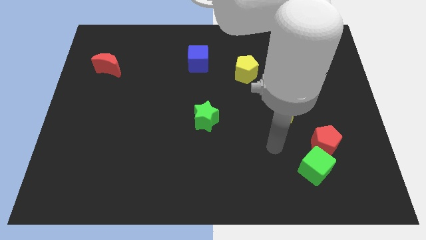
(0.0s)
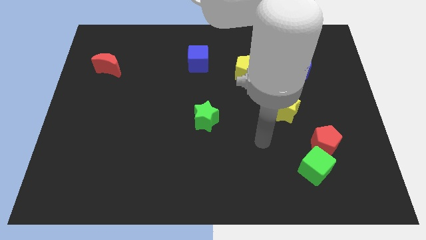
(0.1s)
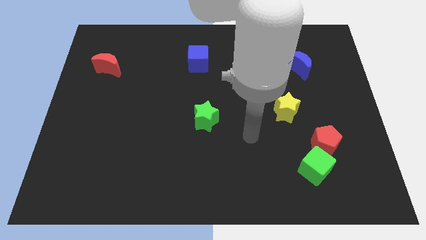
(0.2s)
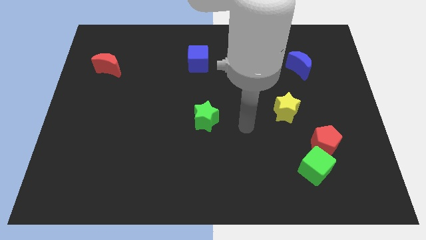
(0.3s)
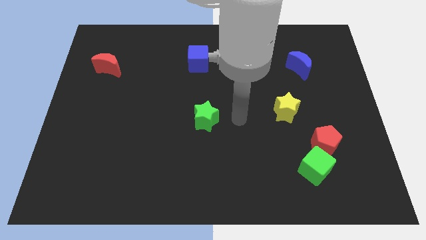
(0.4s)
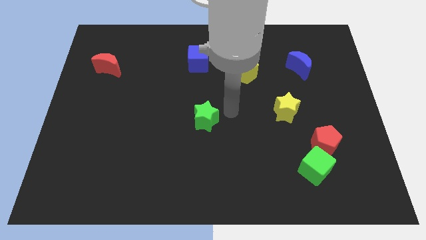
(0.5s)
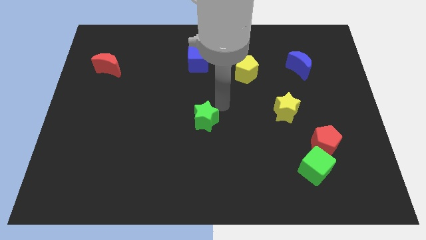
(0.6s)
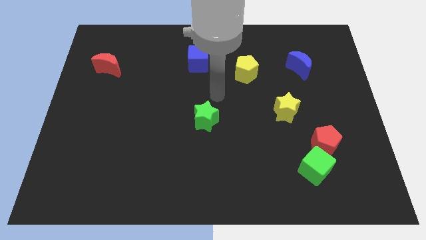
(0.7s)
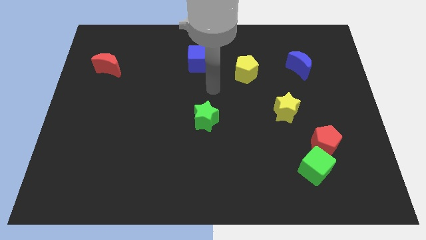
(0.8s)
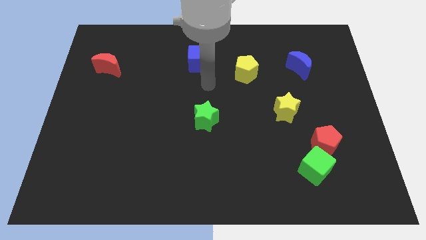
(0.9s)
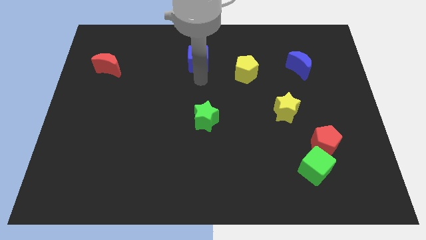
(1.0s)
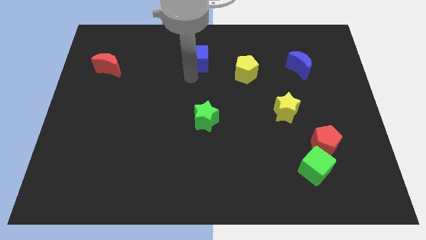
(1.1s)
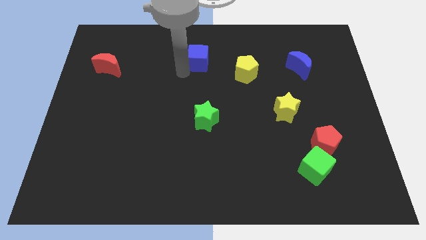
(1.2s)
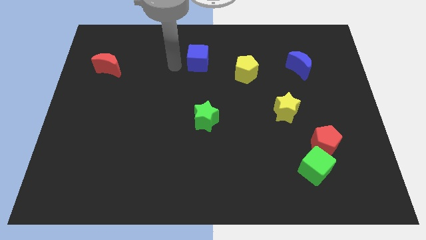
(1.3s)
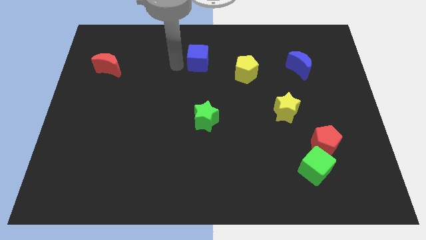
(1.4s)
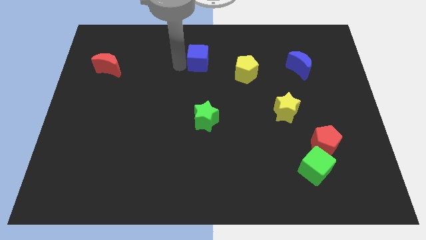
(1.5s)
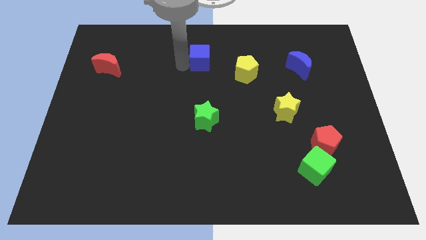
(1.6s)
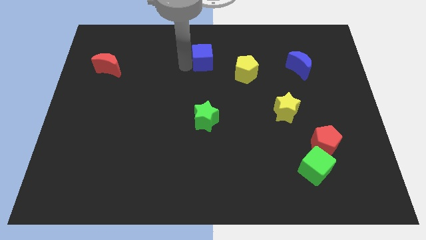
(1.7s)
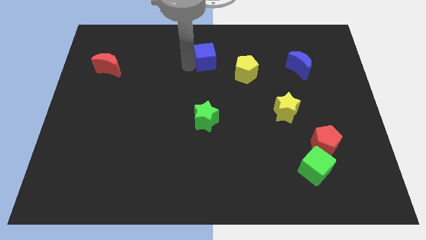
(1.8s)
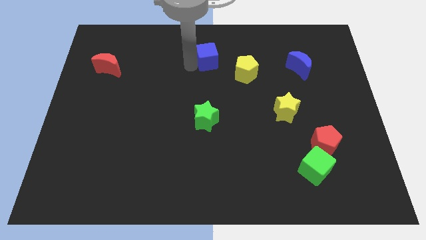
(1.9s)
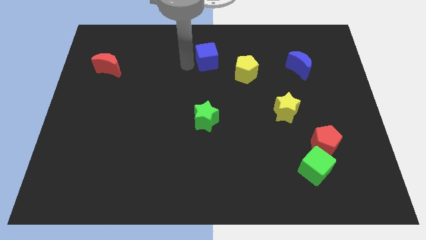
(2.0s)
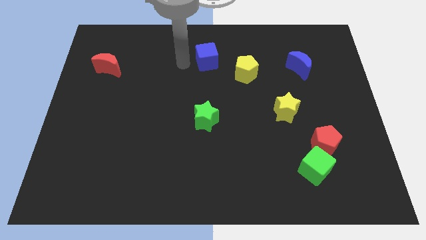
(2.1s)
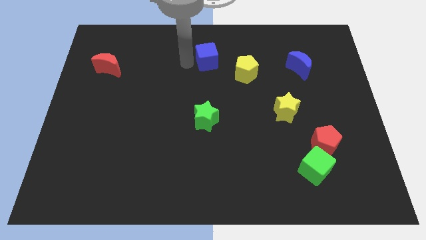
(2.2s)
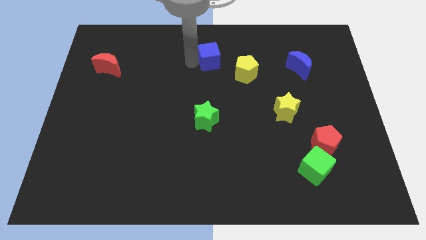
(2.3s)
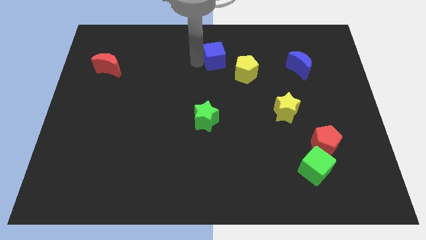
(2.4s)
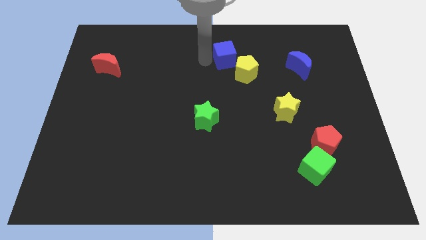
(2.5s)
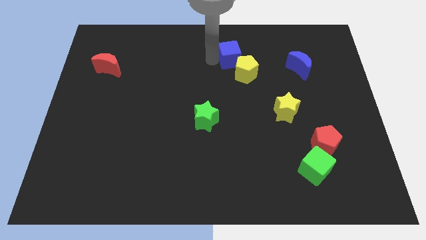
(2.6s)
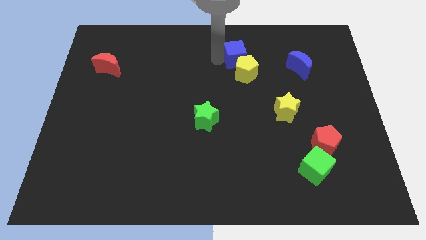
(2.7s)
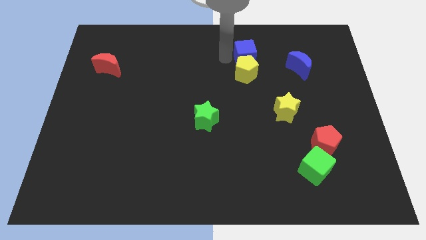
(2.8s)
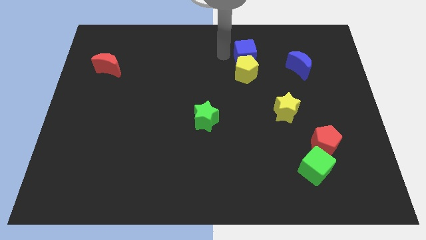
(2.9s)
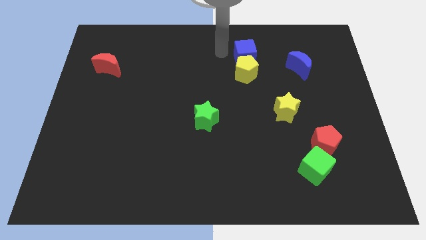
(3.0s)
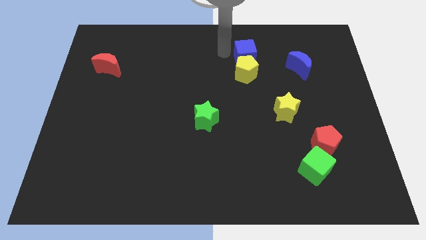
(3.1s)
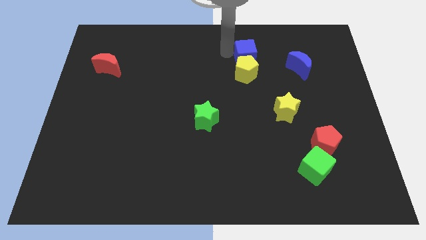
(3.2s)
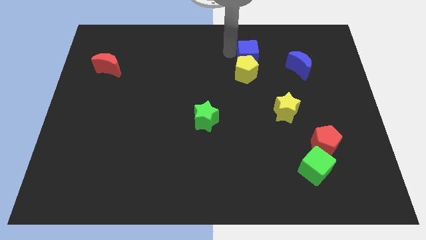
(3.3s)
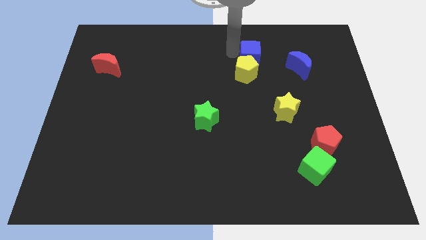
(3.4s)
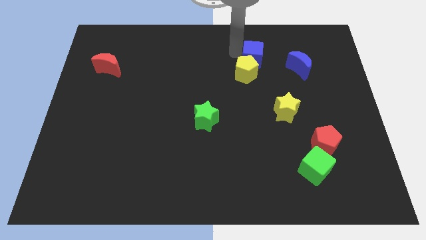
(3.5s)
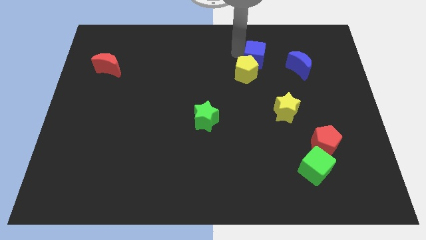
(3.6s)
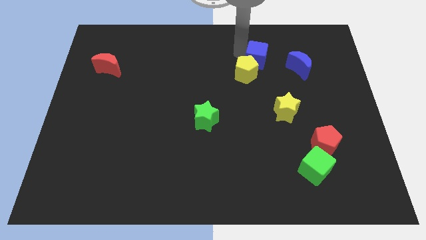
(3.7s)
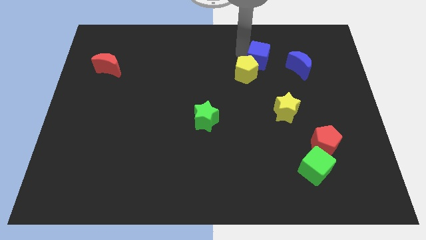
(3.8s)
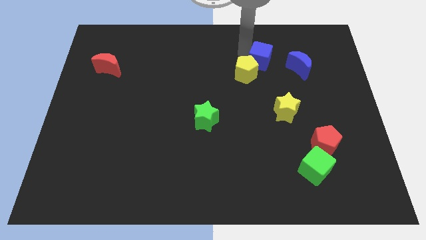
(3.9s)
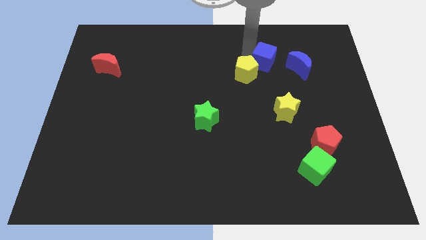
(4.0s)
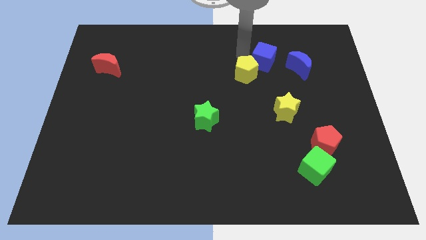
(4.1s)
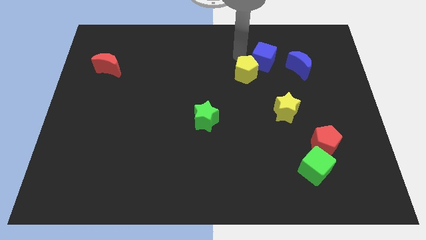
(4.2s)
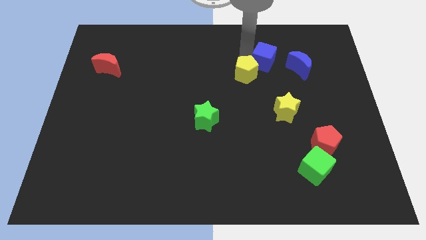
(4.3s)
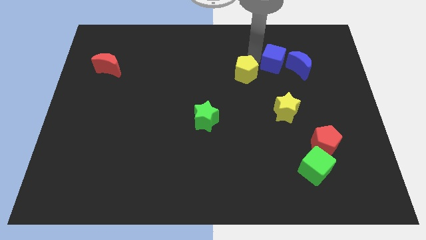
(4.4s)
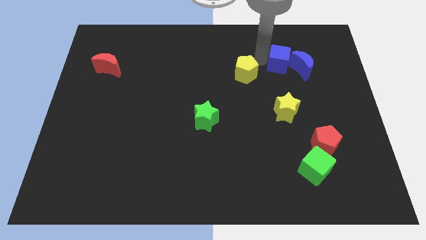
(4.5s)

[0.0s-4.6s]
move the blue cube towards the blue moon

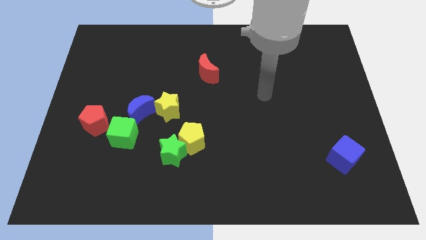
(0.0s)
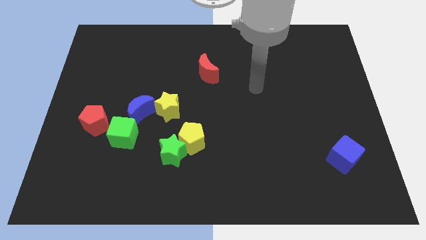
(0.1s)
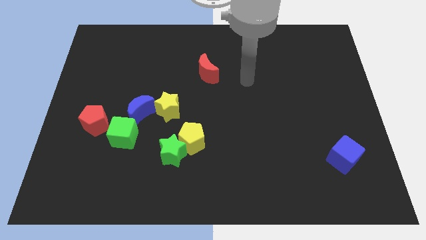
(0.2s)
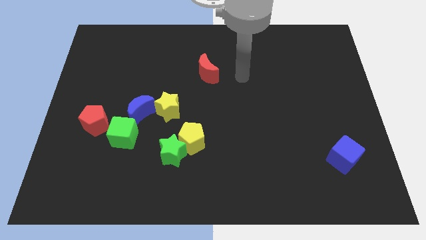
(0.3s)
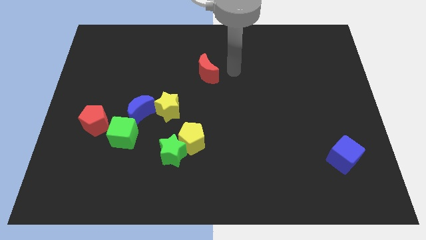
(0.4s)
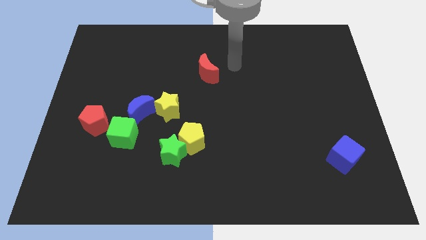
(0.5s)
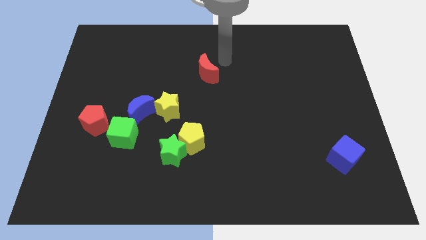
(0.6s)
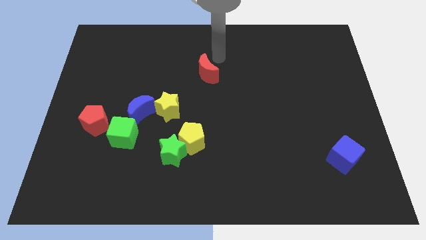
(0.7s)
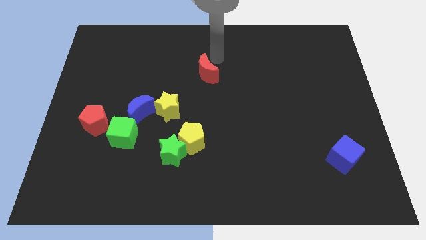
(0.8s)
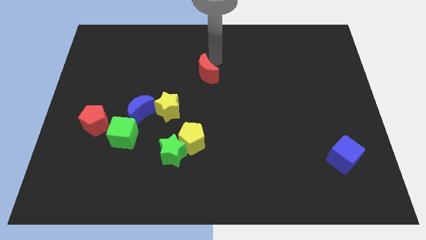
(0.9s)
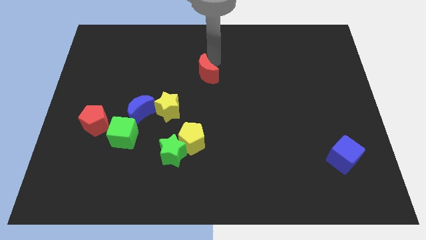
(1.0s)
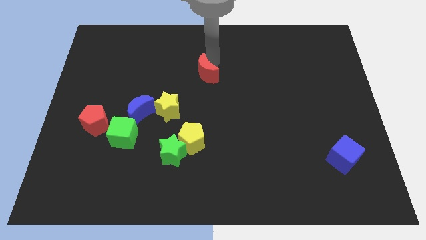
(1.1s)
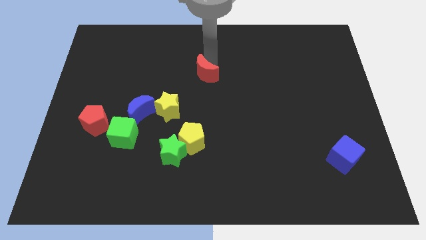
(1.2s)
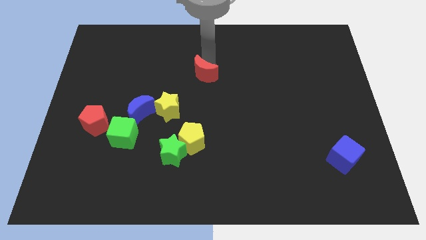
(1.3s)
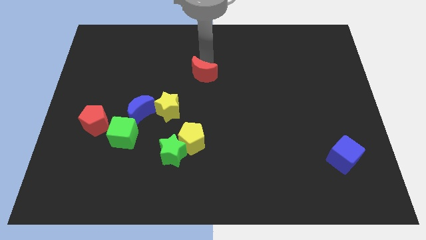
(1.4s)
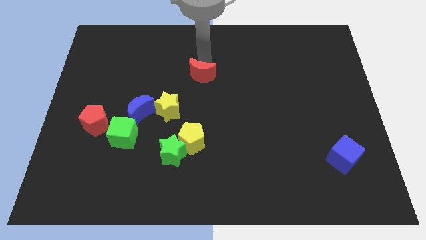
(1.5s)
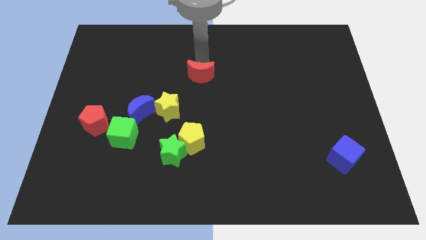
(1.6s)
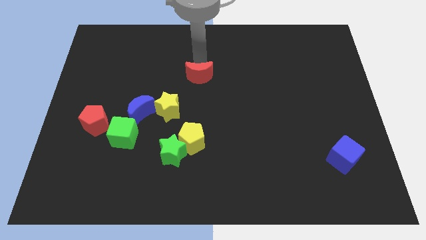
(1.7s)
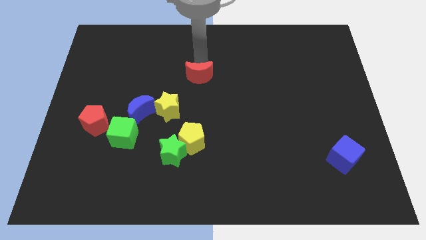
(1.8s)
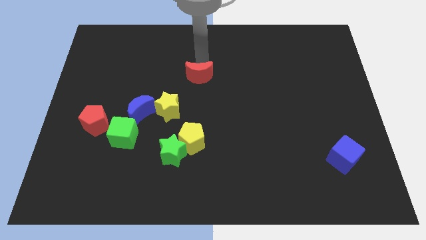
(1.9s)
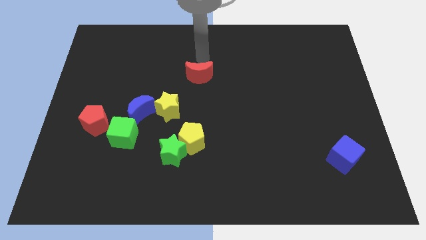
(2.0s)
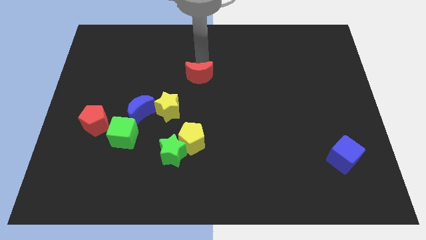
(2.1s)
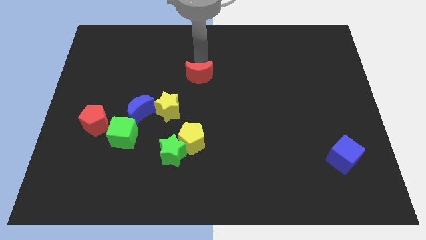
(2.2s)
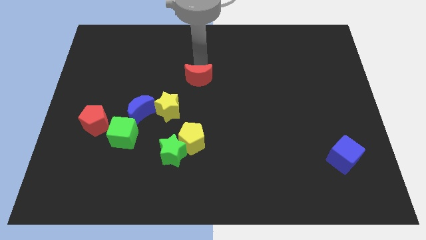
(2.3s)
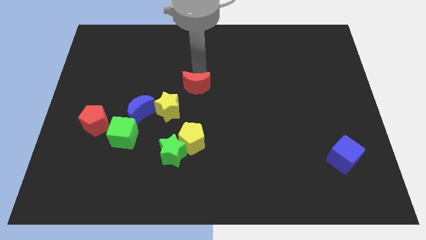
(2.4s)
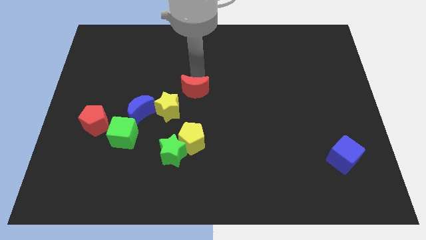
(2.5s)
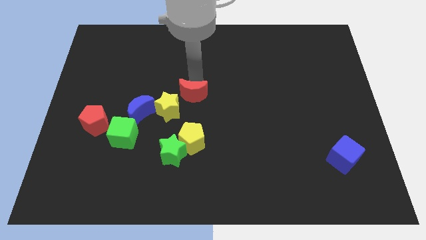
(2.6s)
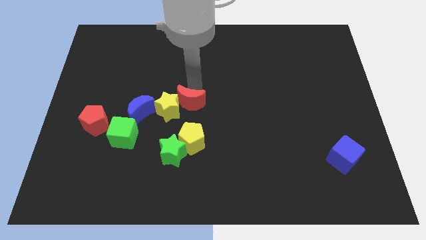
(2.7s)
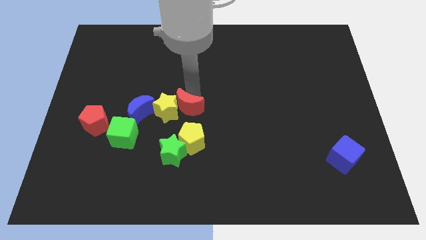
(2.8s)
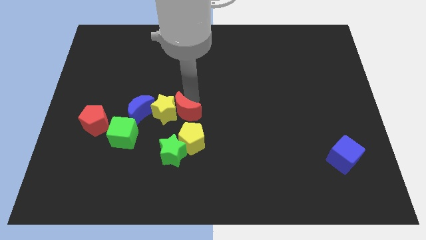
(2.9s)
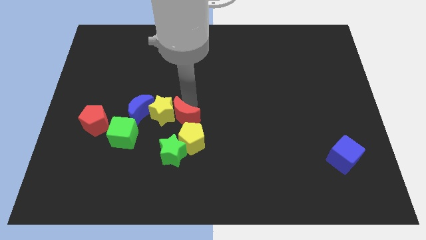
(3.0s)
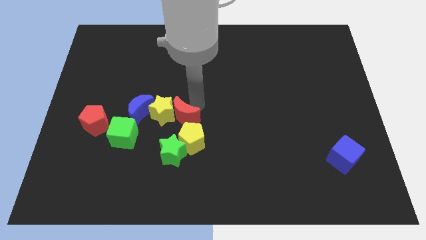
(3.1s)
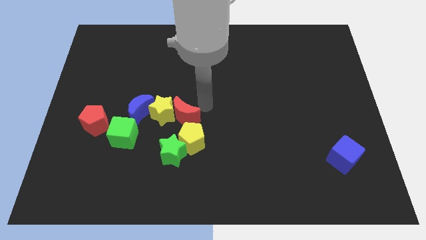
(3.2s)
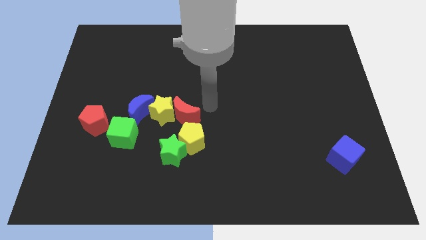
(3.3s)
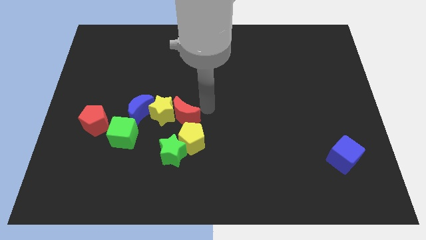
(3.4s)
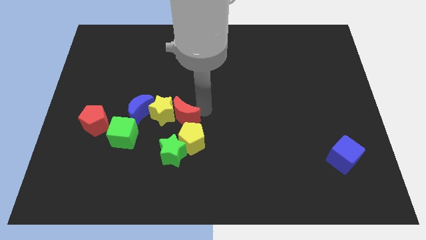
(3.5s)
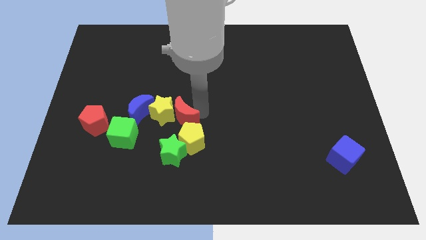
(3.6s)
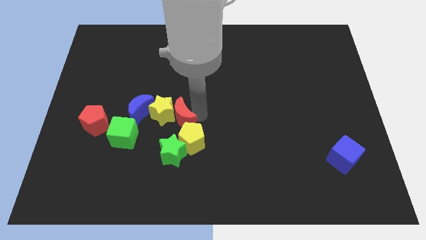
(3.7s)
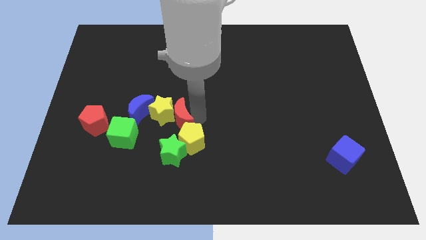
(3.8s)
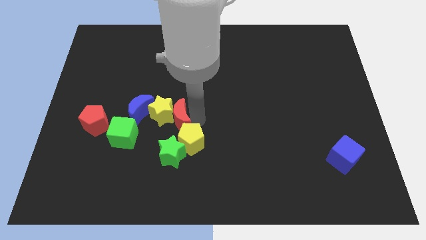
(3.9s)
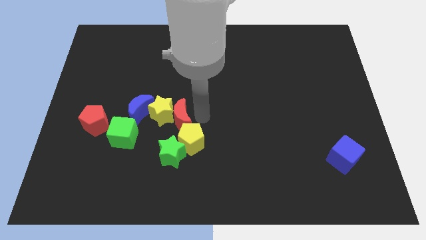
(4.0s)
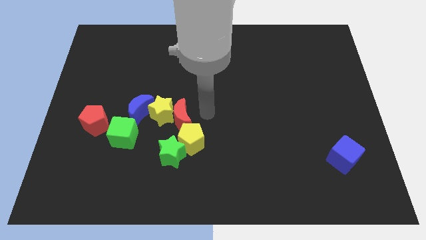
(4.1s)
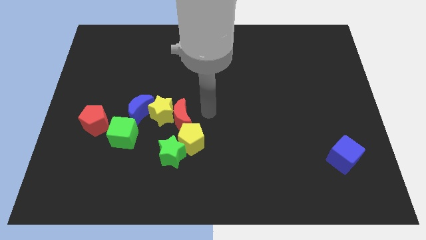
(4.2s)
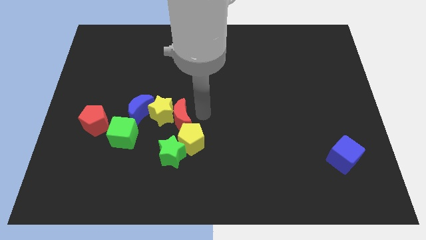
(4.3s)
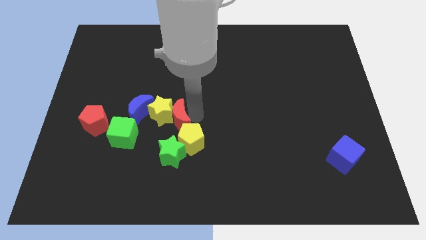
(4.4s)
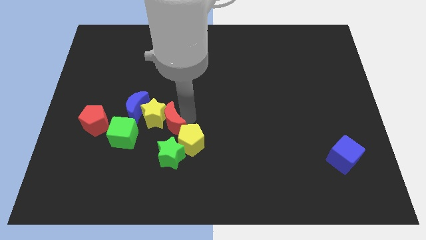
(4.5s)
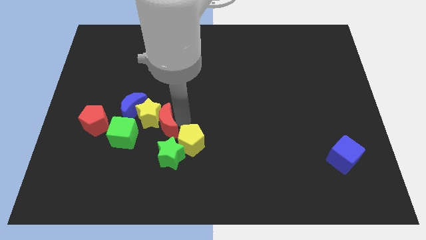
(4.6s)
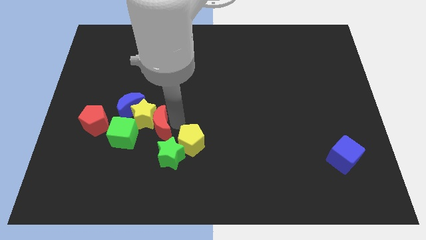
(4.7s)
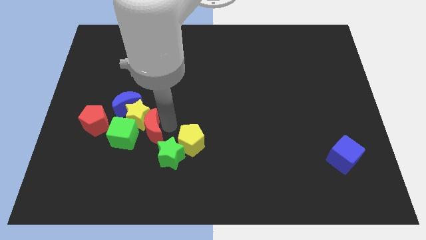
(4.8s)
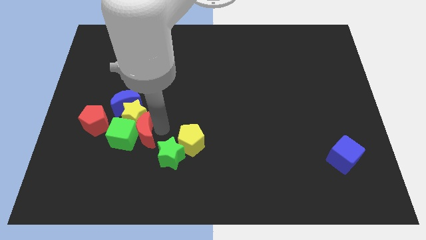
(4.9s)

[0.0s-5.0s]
push the red moon next to the green cube
